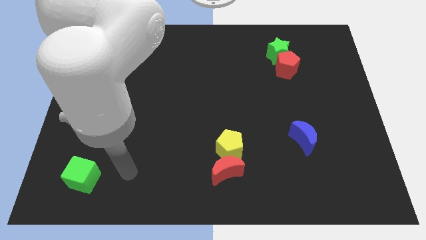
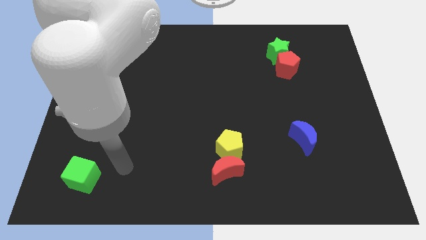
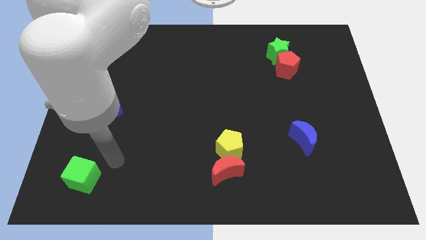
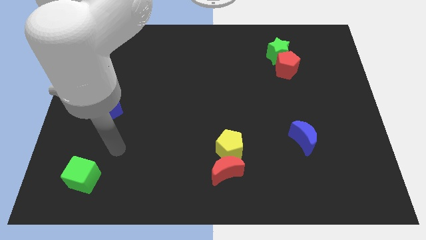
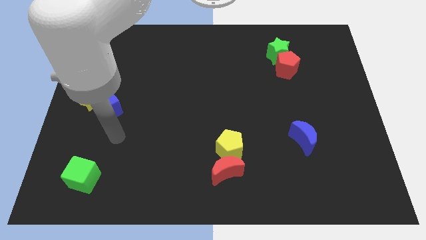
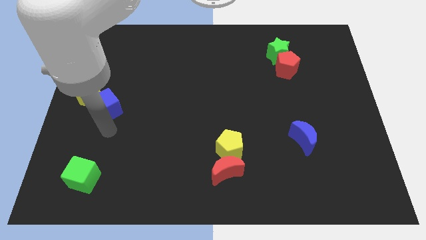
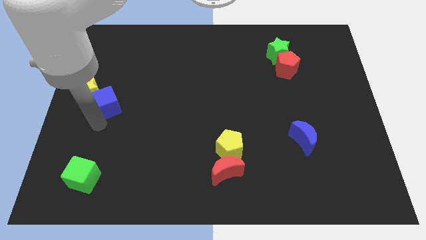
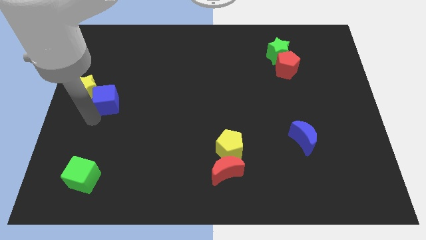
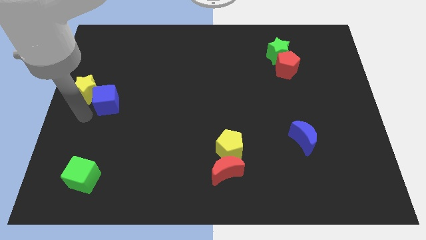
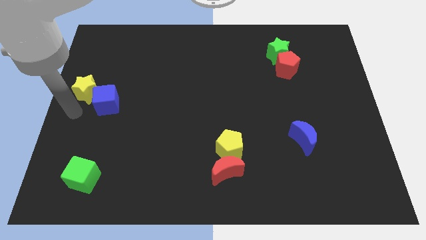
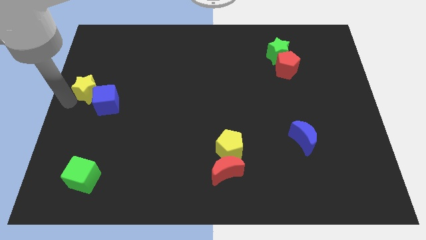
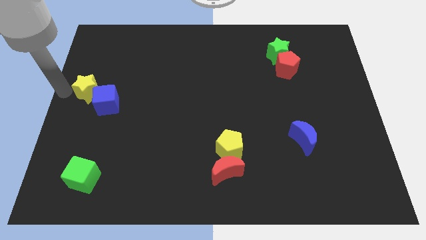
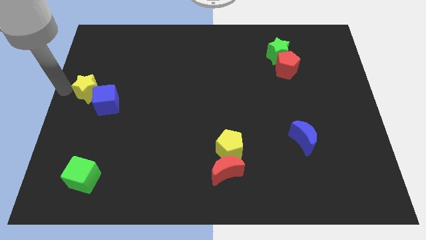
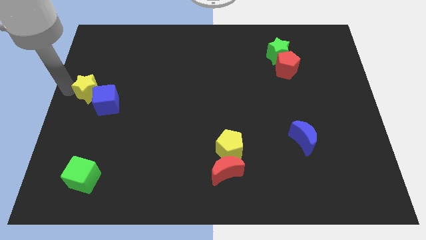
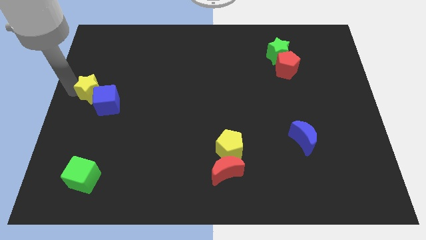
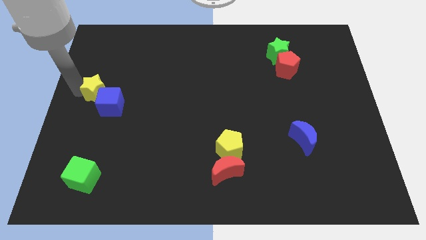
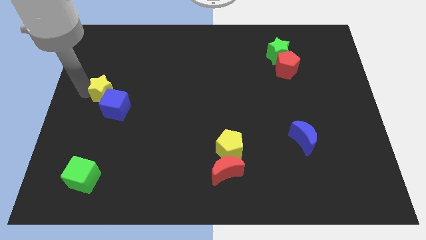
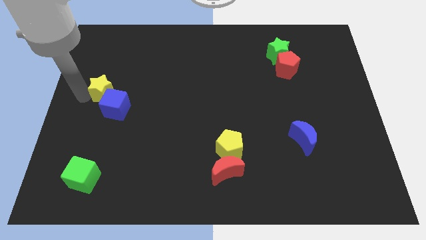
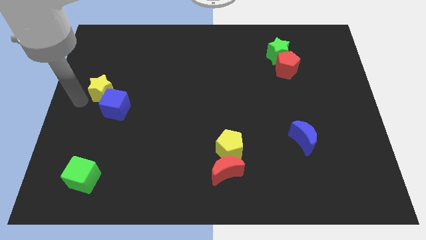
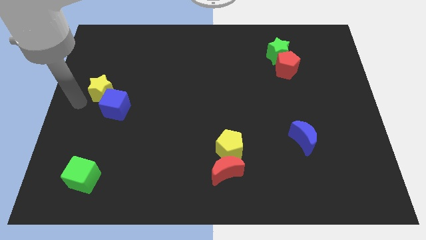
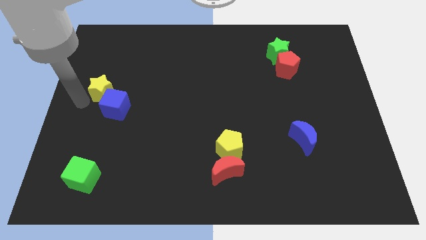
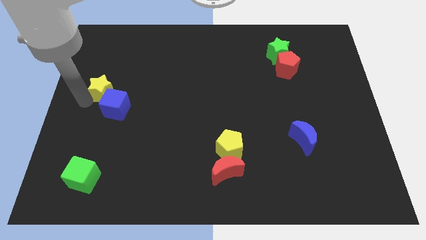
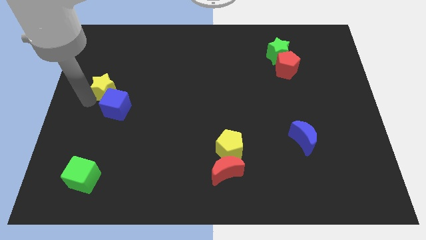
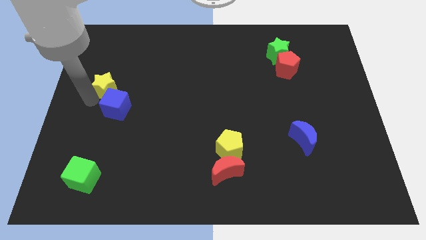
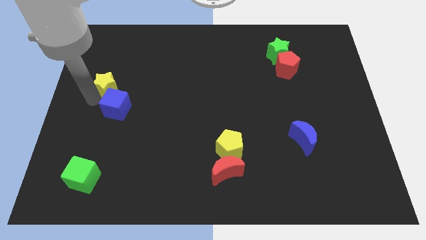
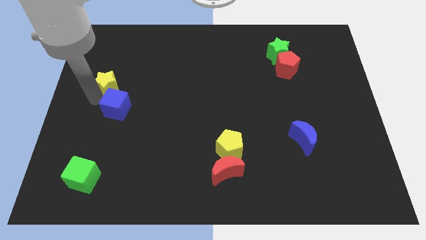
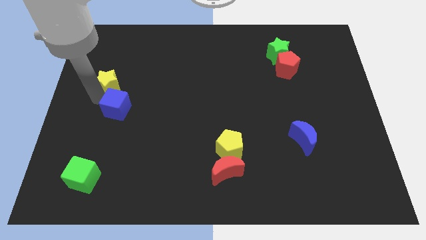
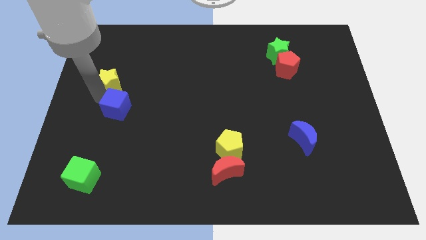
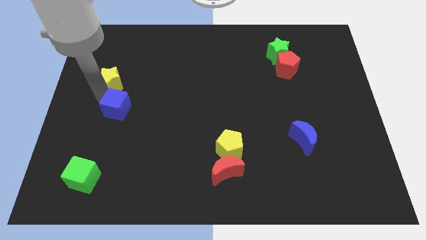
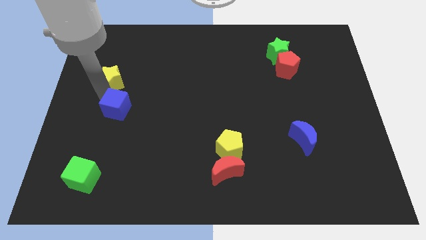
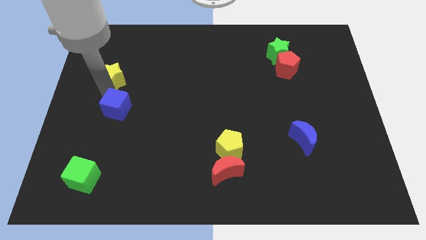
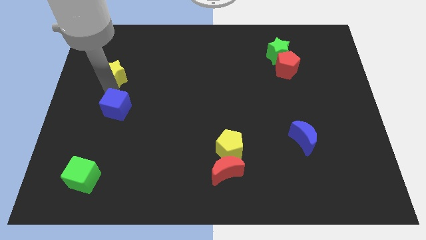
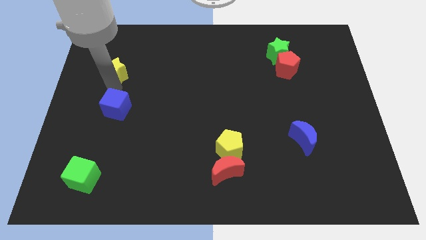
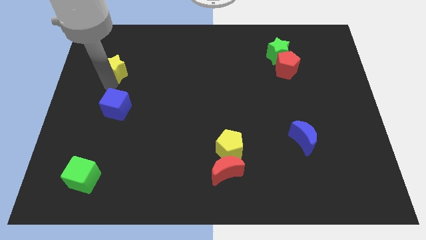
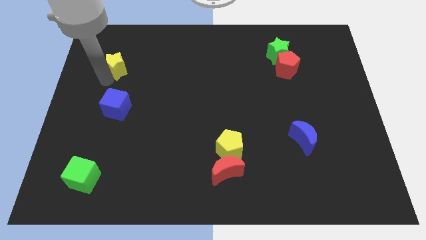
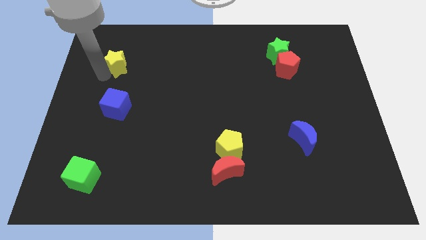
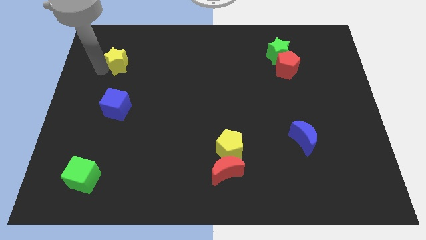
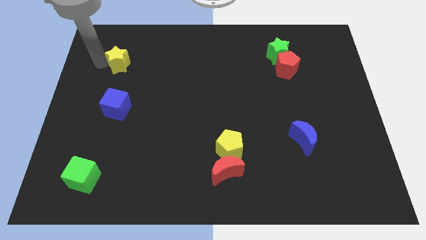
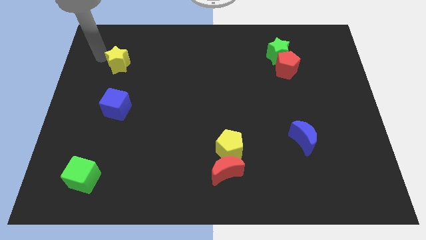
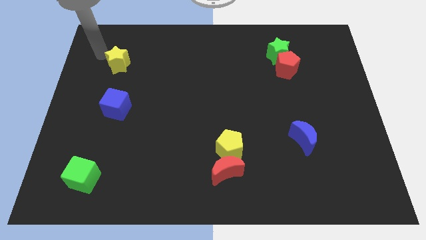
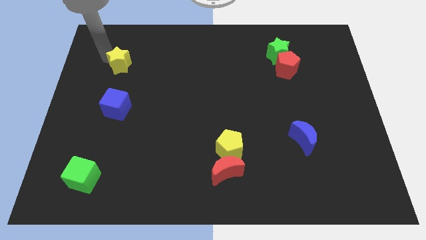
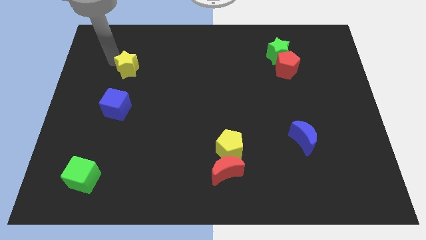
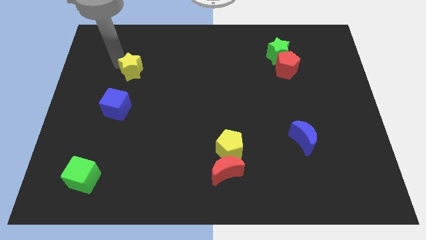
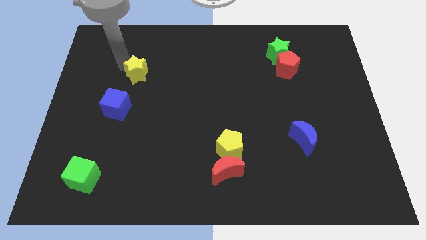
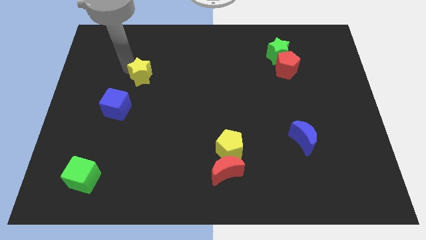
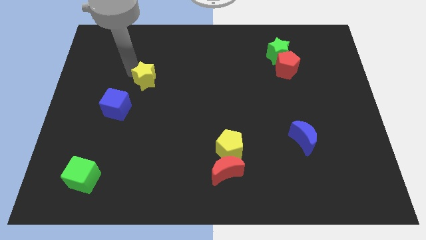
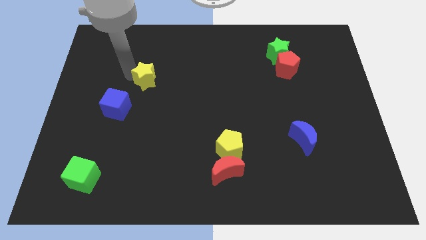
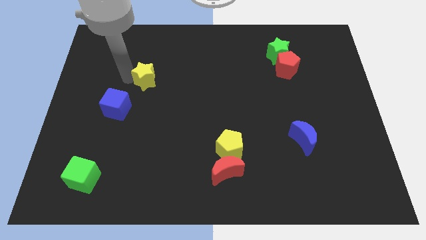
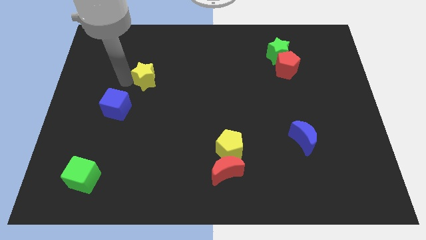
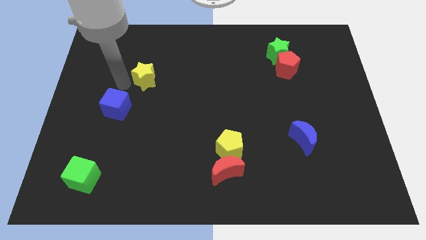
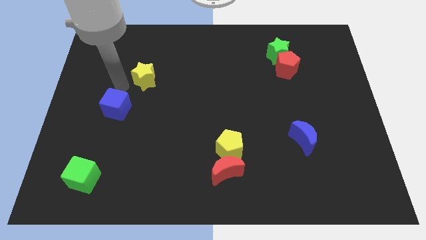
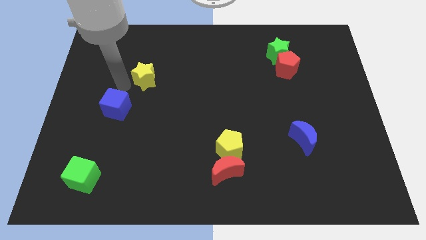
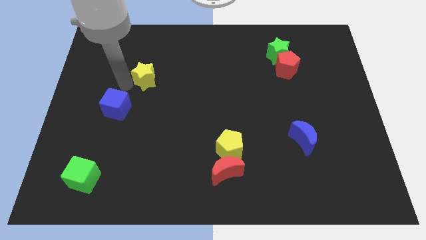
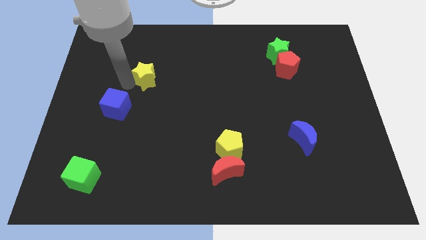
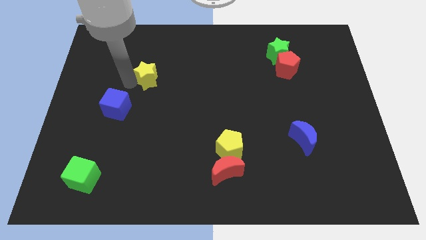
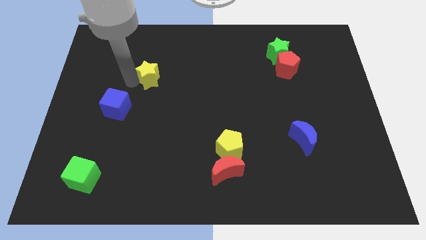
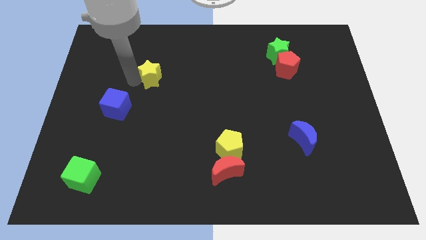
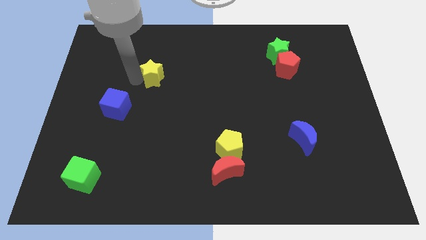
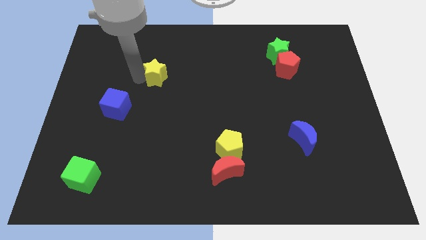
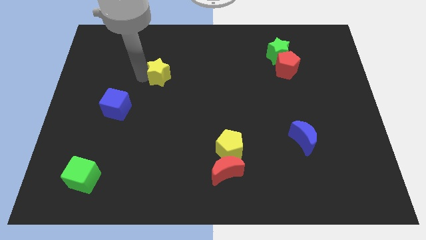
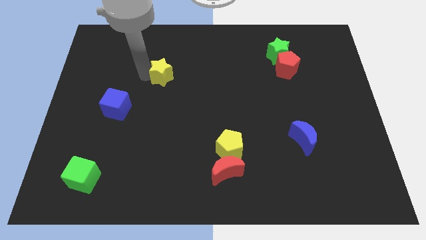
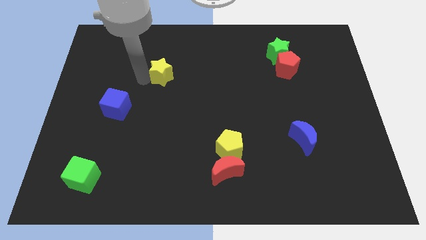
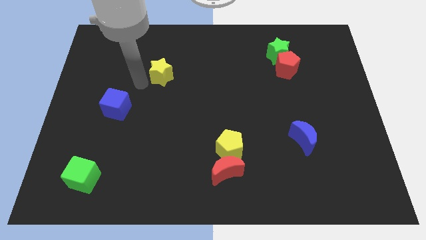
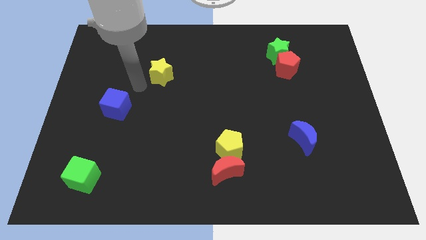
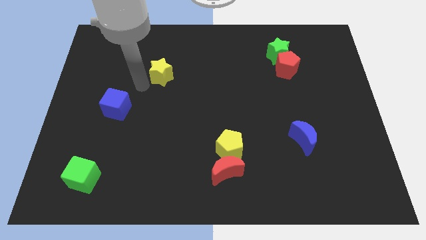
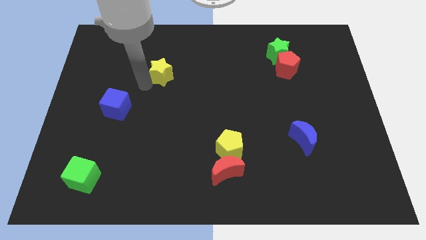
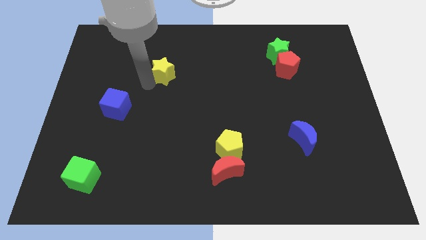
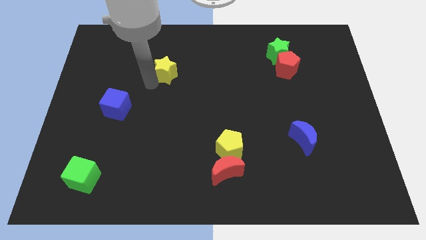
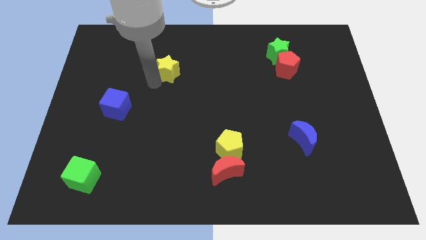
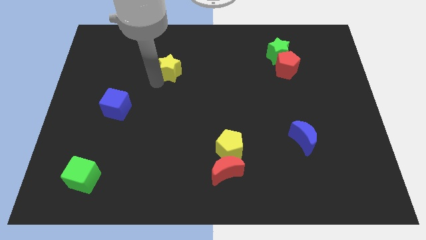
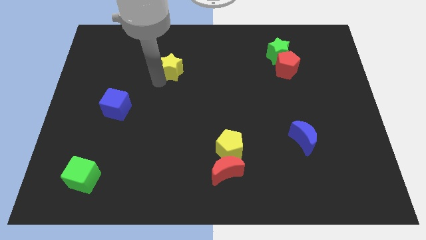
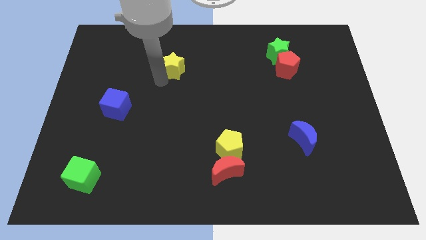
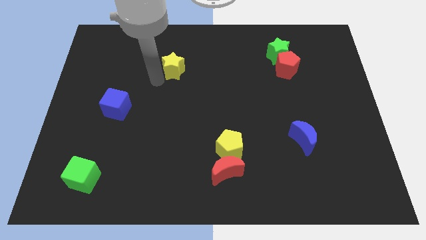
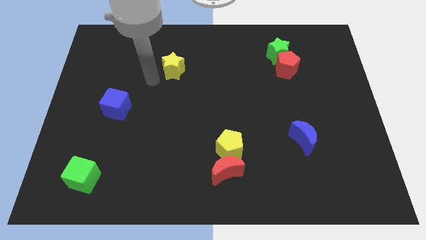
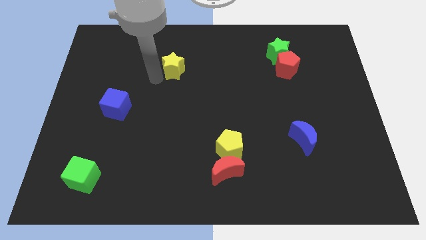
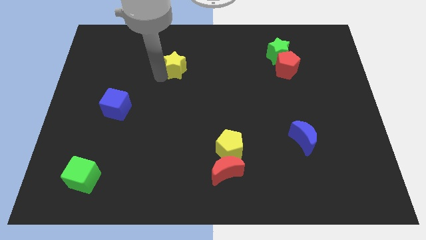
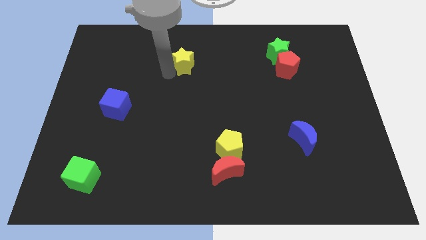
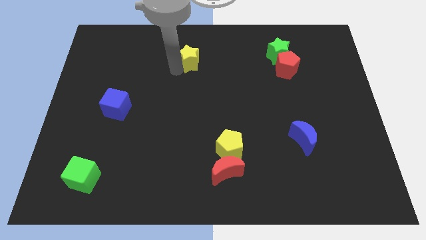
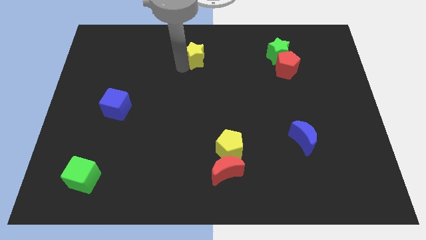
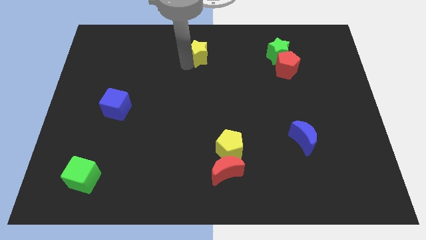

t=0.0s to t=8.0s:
move the yellow star to the towards your base
